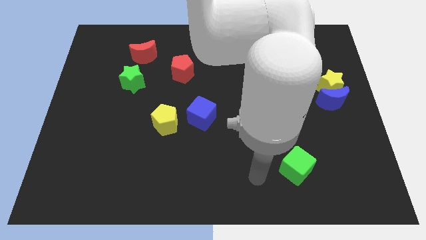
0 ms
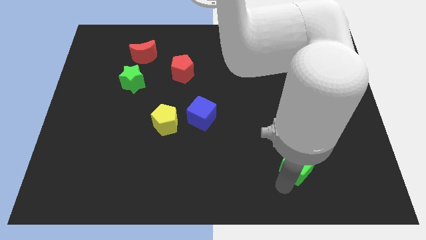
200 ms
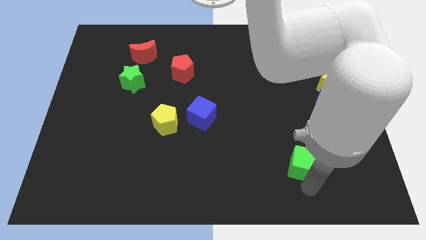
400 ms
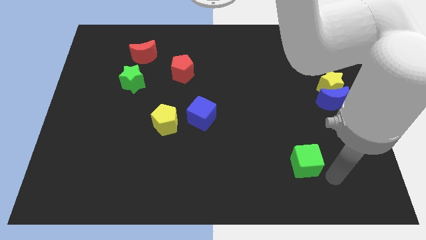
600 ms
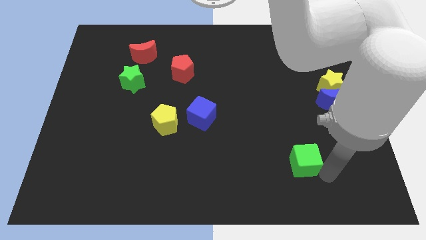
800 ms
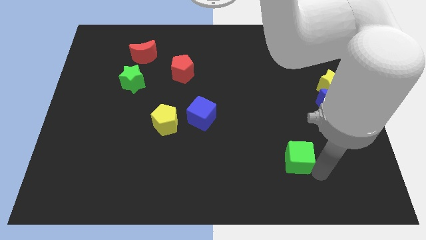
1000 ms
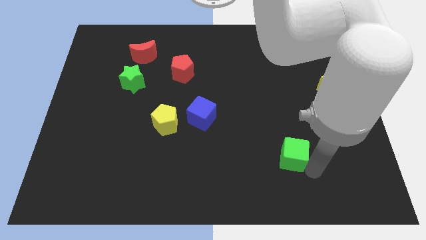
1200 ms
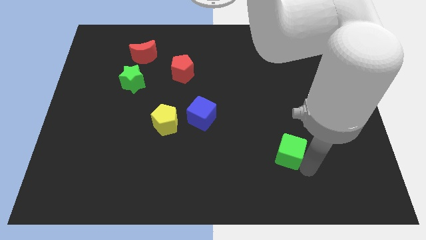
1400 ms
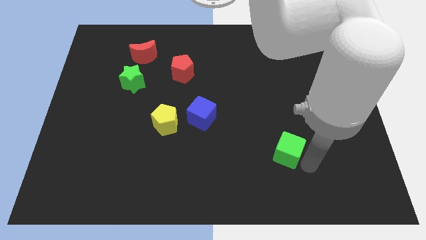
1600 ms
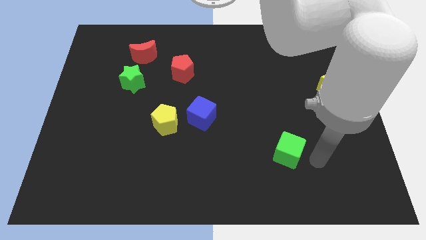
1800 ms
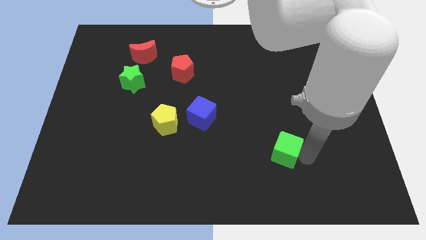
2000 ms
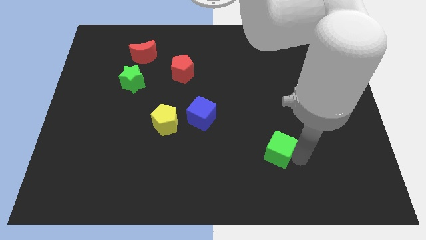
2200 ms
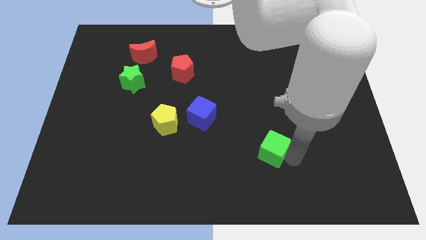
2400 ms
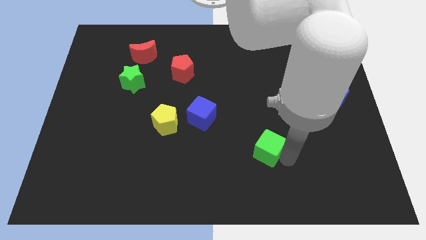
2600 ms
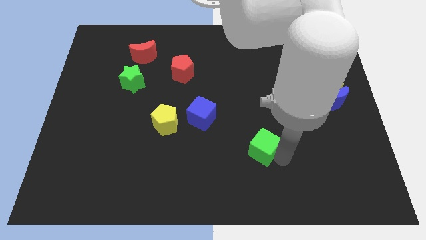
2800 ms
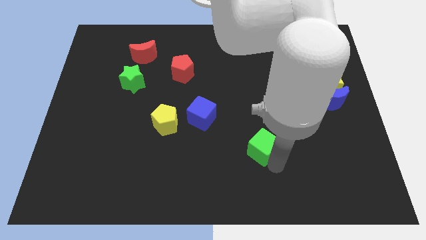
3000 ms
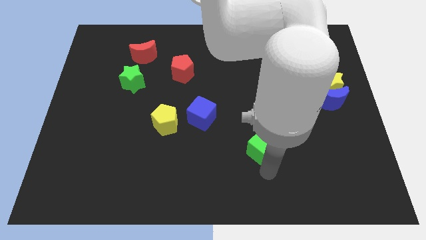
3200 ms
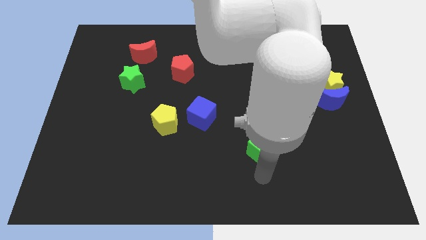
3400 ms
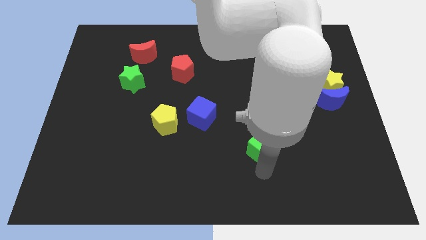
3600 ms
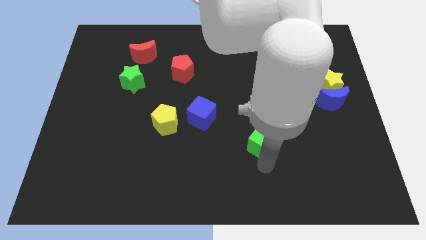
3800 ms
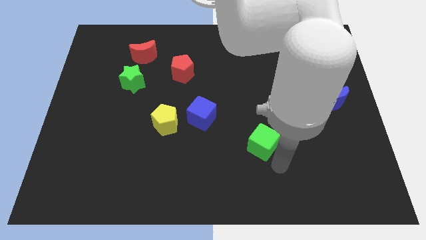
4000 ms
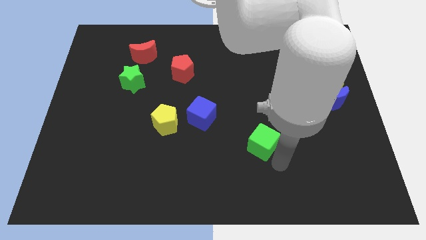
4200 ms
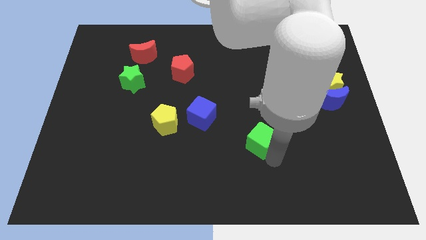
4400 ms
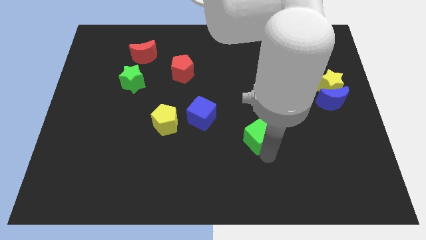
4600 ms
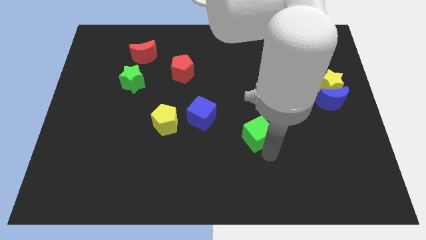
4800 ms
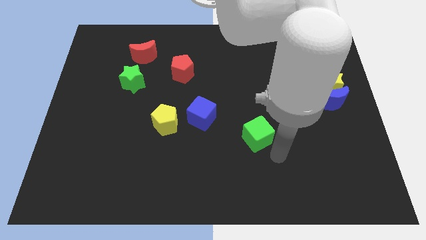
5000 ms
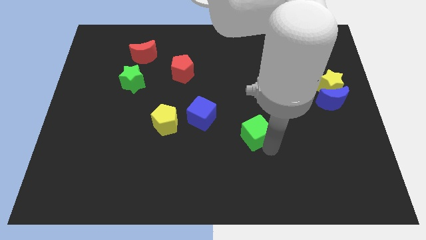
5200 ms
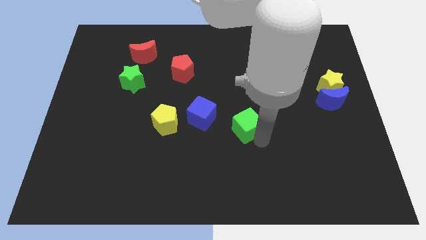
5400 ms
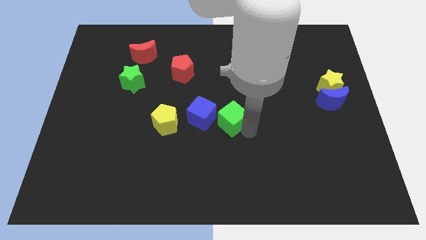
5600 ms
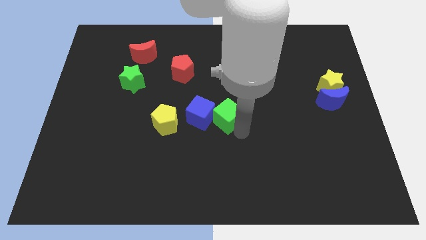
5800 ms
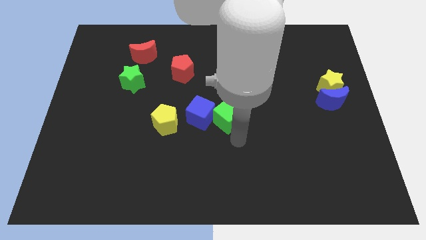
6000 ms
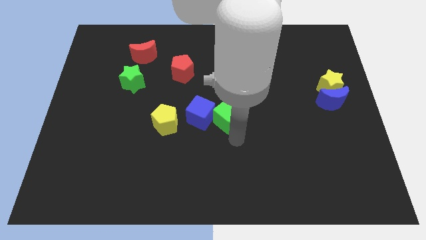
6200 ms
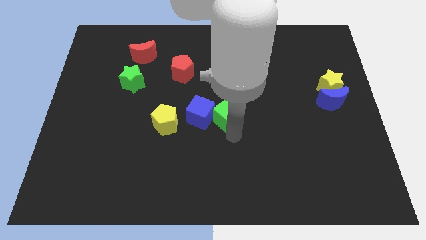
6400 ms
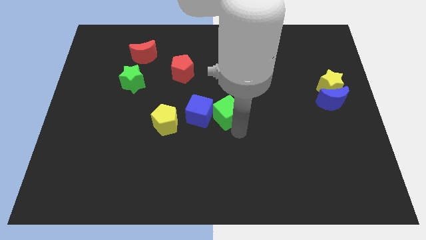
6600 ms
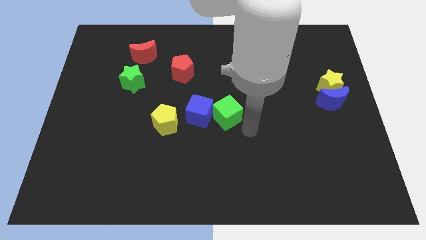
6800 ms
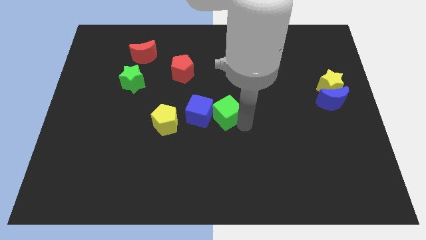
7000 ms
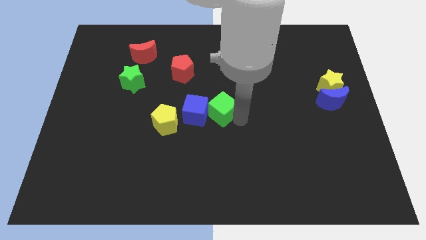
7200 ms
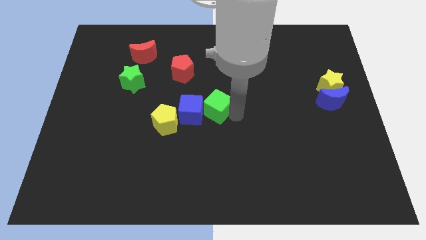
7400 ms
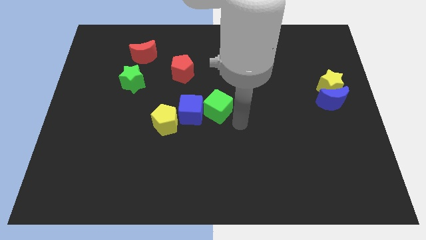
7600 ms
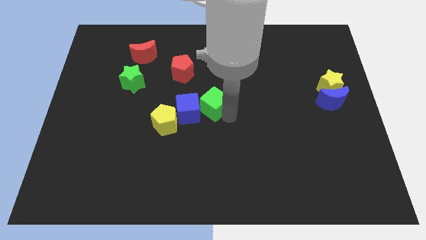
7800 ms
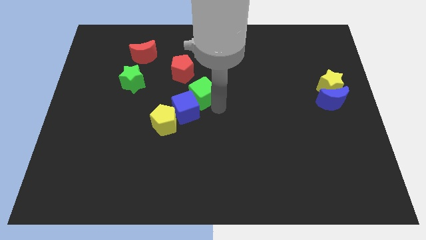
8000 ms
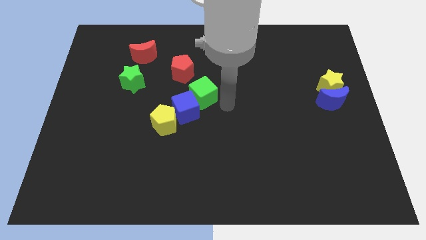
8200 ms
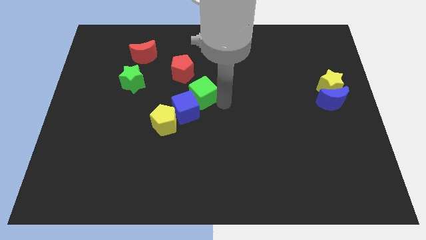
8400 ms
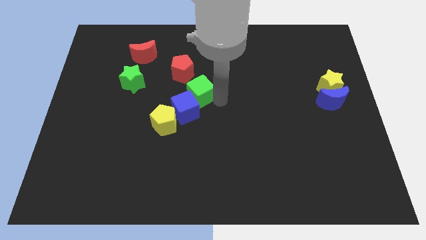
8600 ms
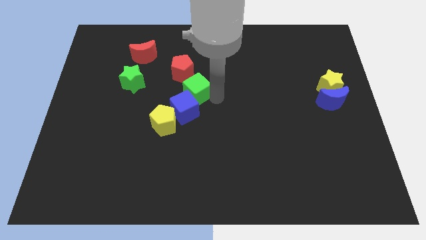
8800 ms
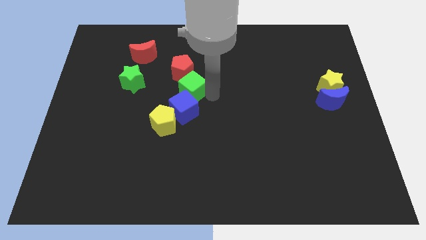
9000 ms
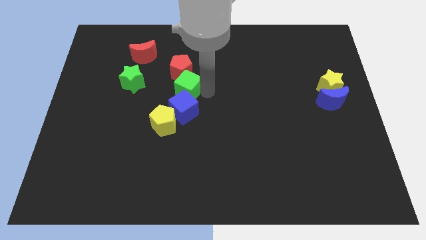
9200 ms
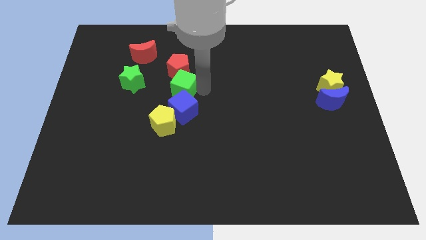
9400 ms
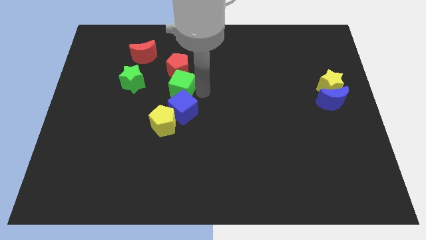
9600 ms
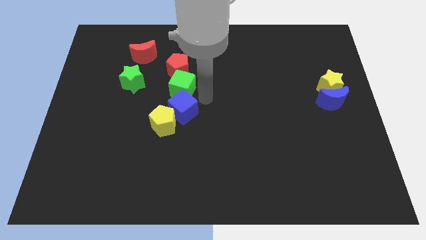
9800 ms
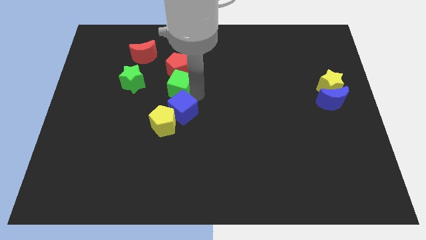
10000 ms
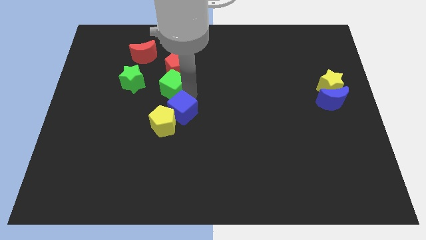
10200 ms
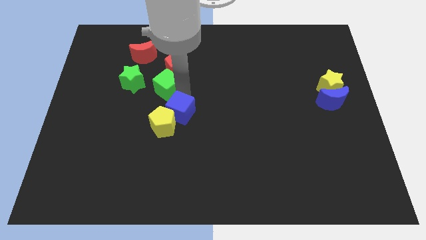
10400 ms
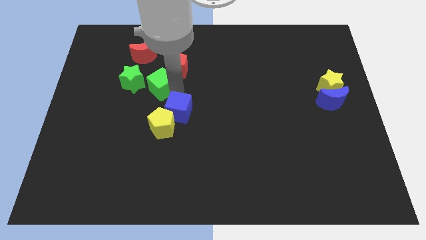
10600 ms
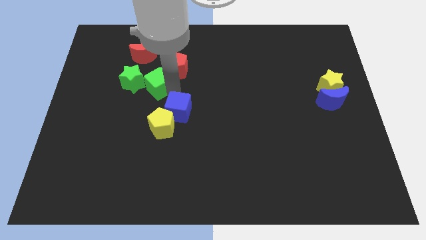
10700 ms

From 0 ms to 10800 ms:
move the green cube to the bottom right of the red moon

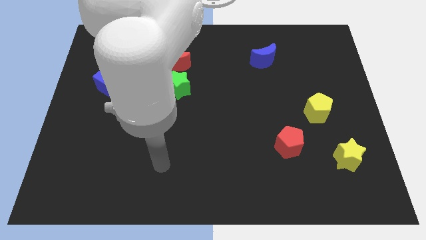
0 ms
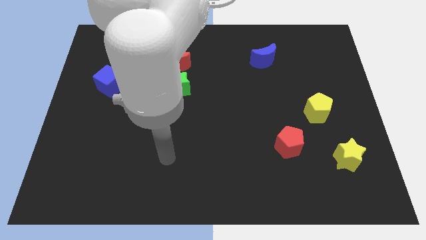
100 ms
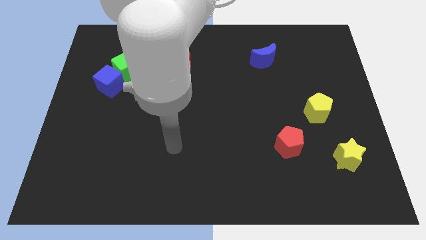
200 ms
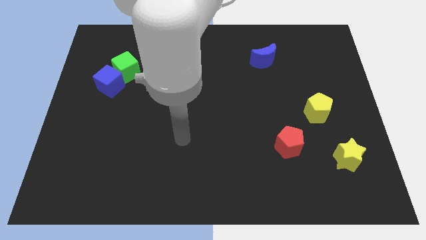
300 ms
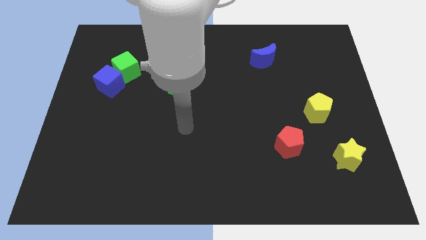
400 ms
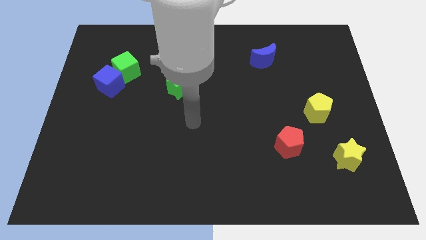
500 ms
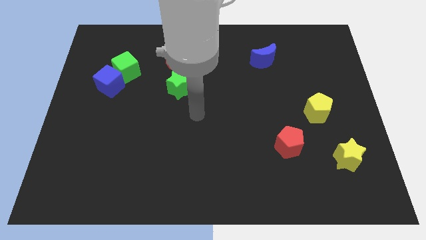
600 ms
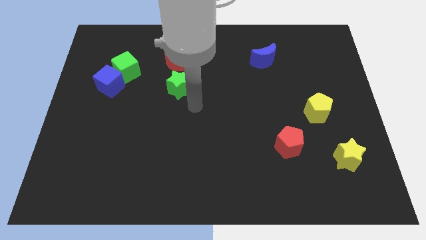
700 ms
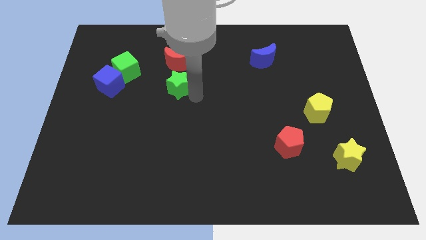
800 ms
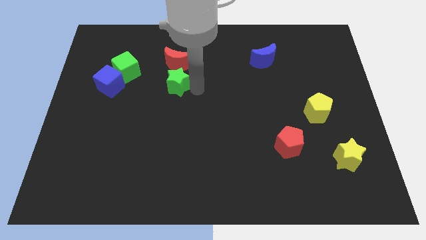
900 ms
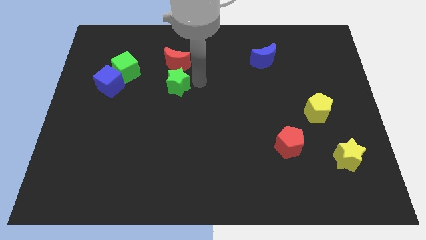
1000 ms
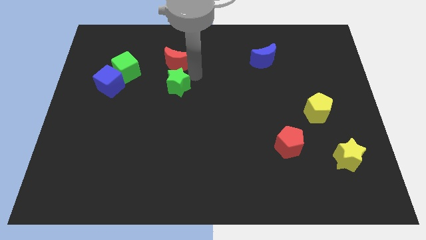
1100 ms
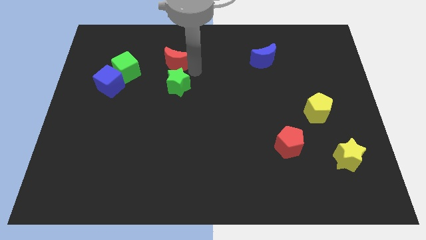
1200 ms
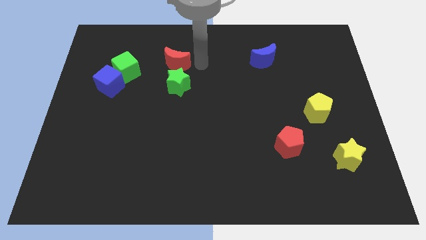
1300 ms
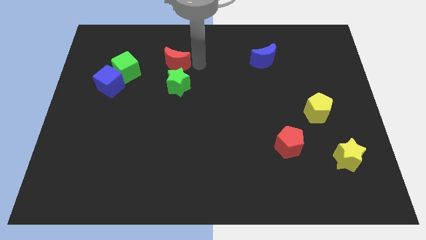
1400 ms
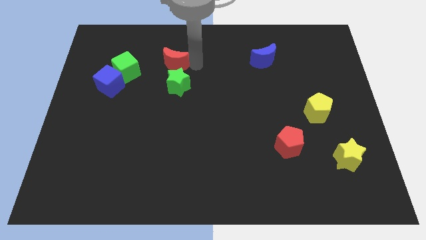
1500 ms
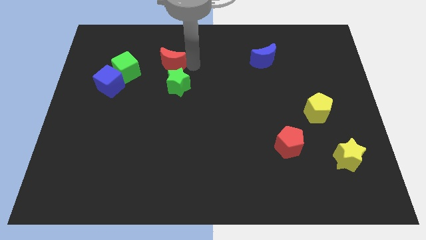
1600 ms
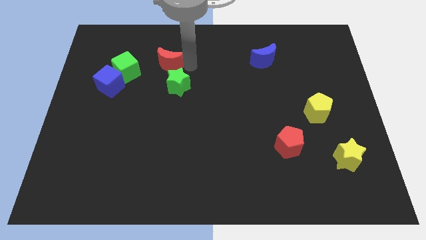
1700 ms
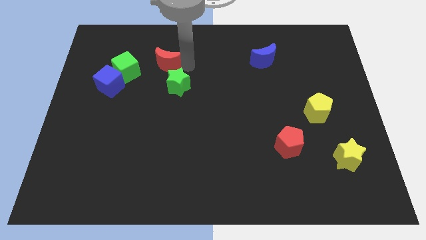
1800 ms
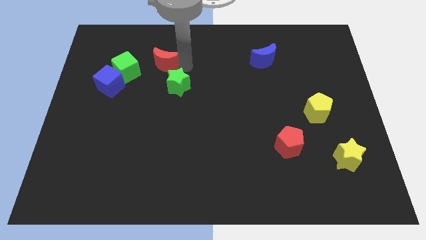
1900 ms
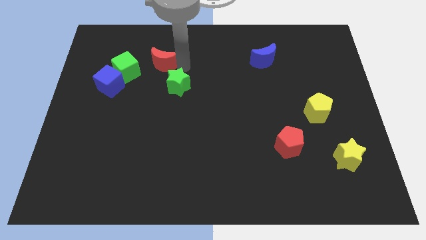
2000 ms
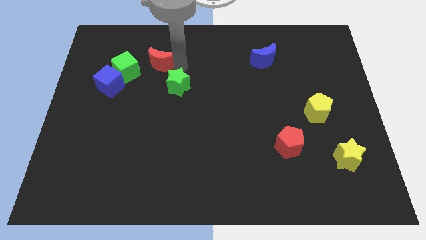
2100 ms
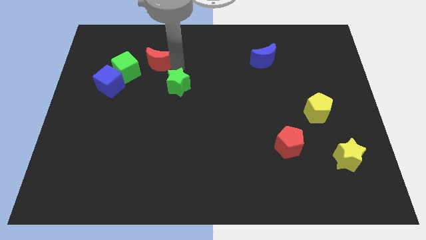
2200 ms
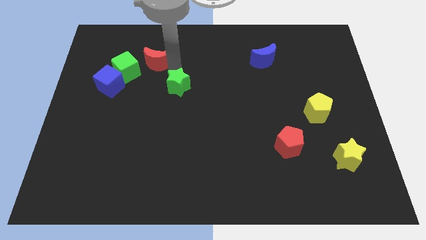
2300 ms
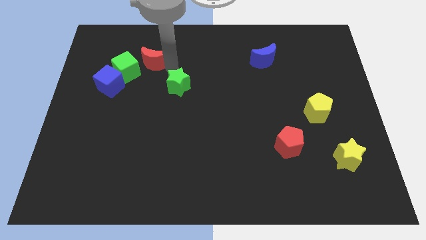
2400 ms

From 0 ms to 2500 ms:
move the red moon to the top right of the blue cube
